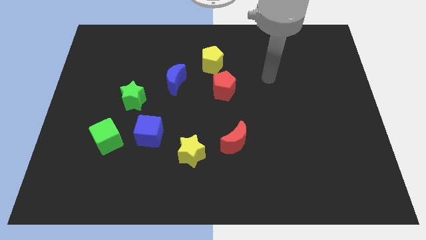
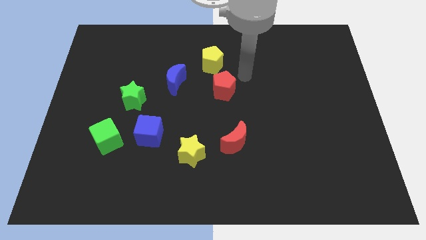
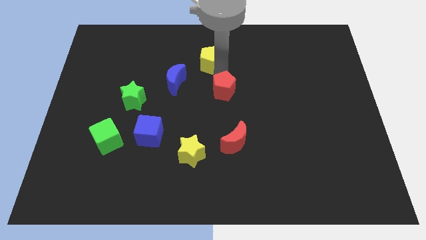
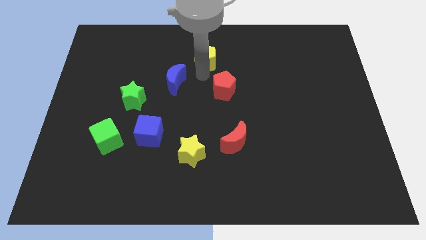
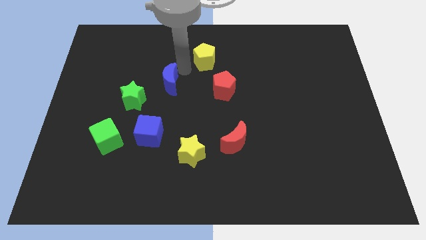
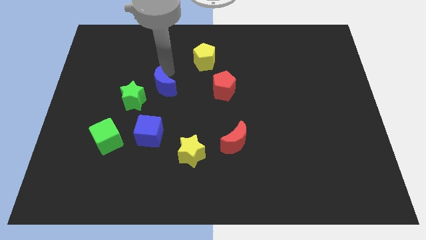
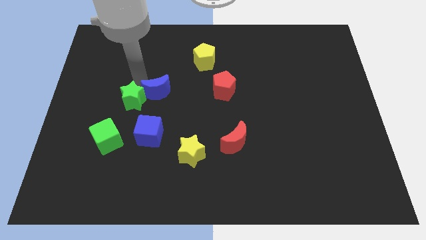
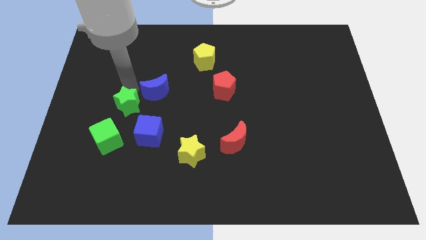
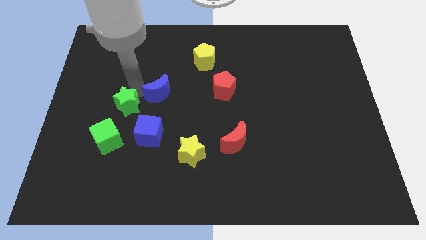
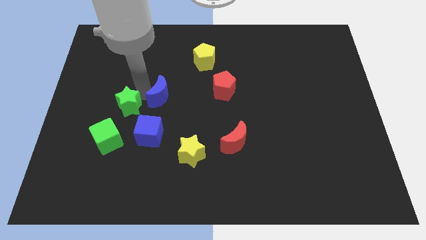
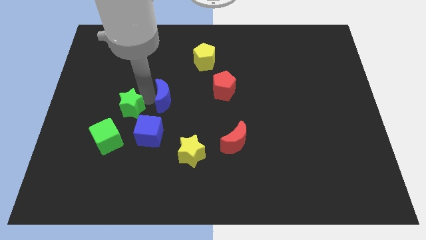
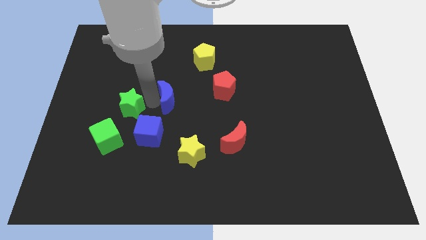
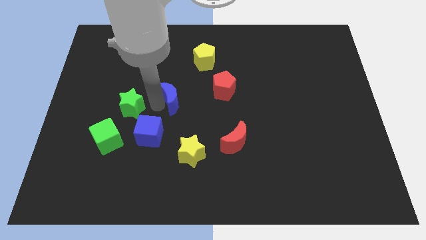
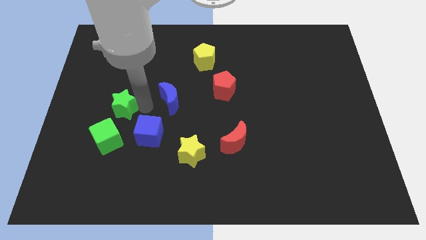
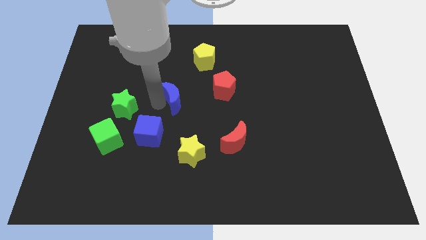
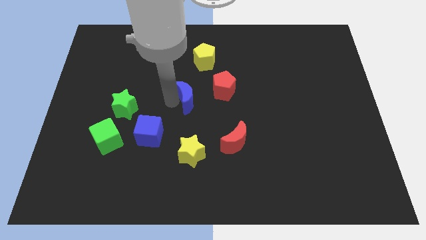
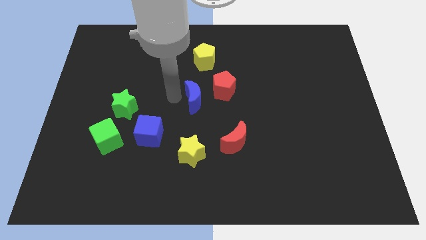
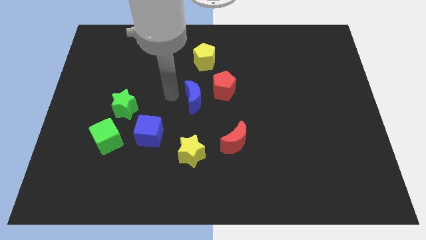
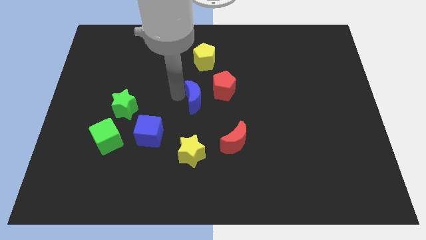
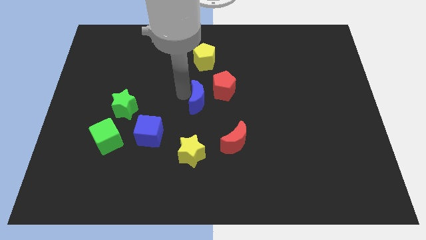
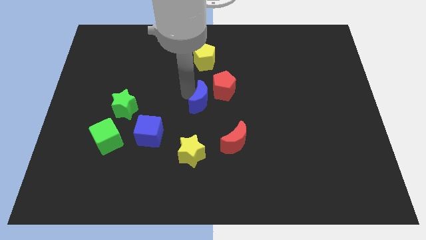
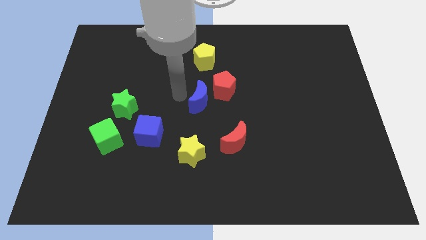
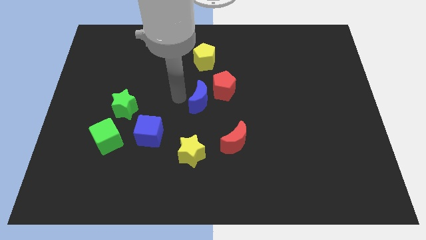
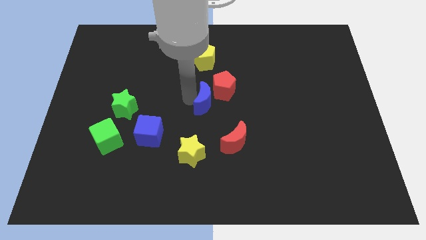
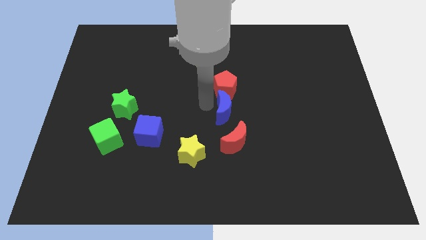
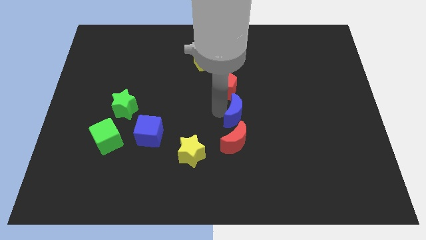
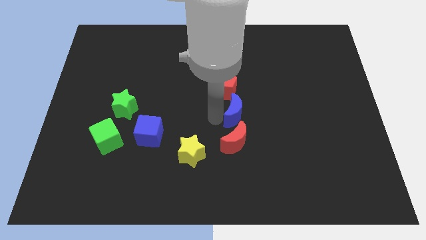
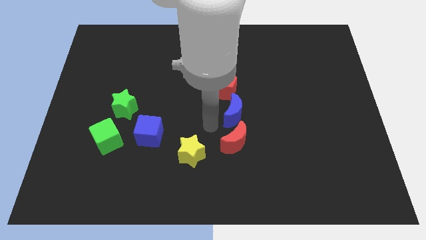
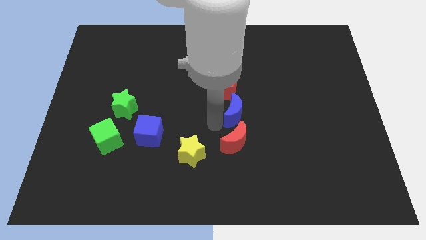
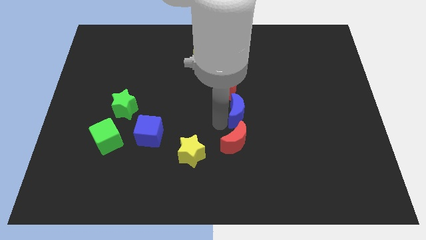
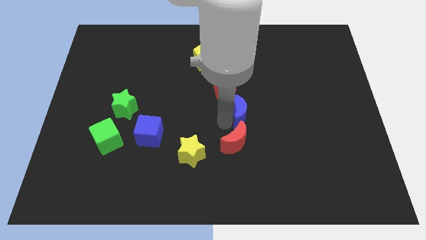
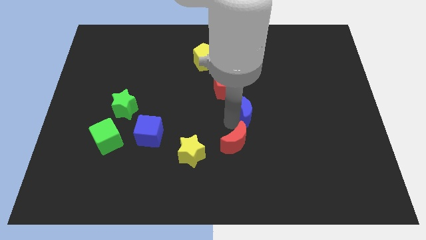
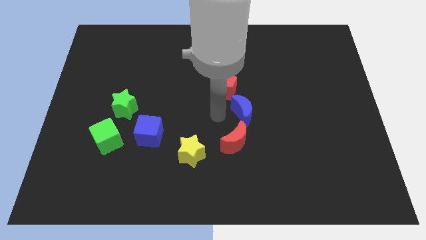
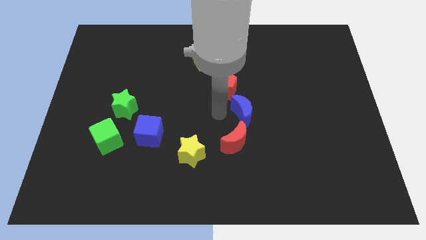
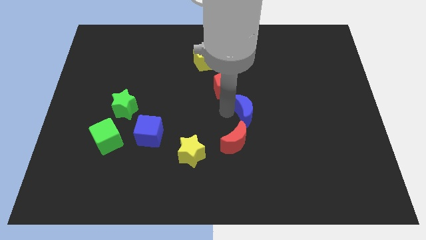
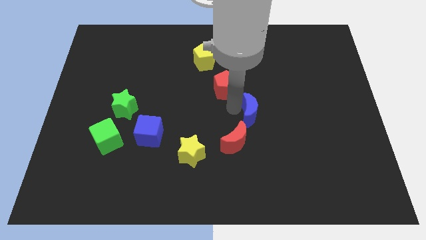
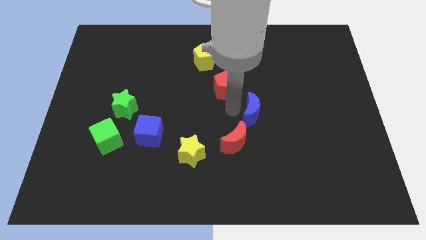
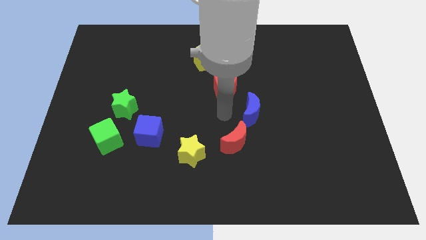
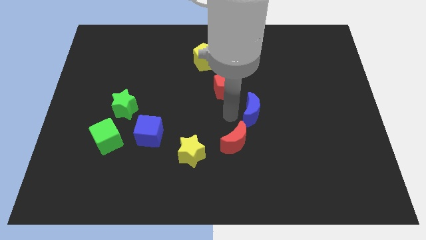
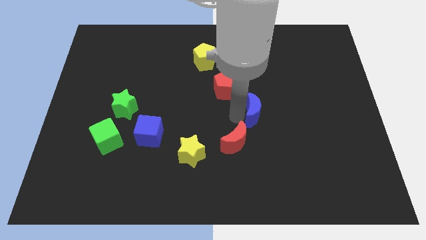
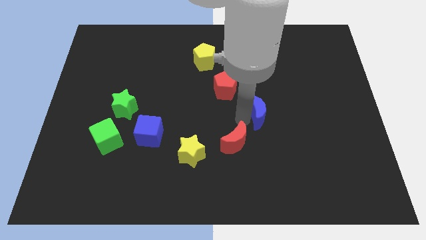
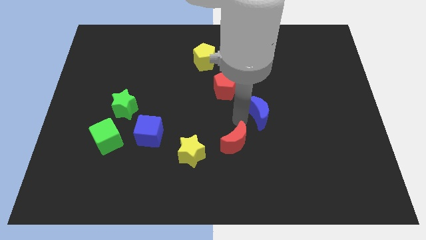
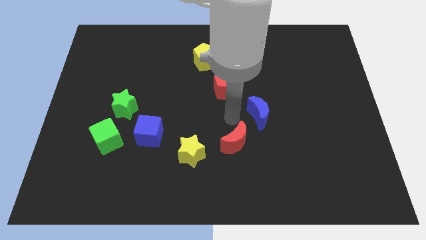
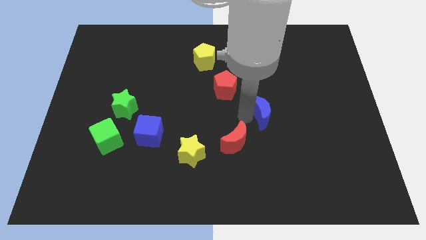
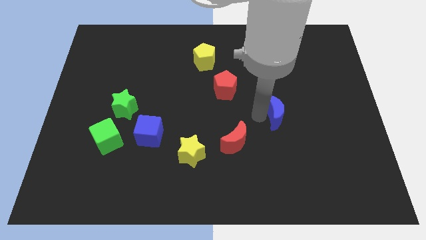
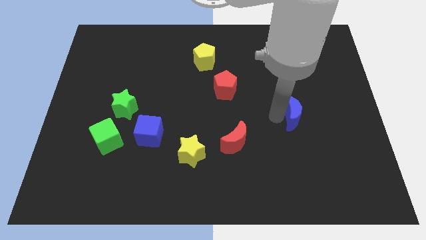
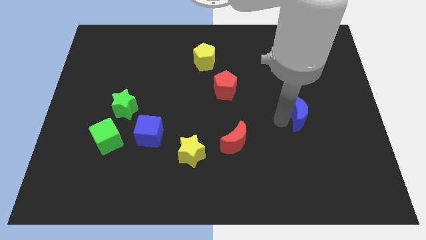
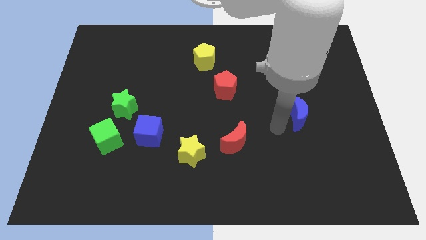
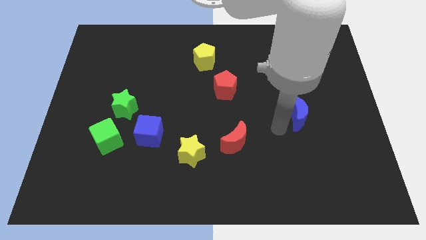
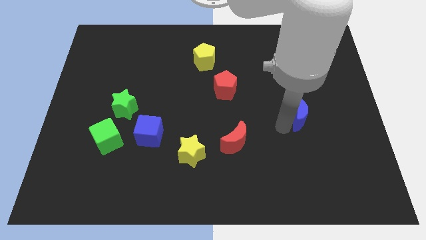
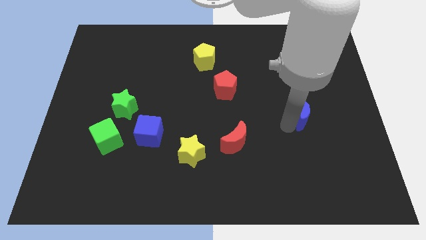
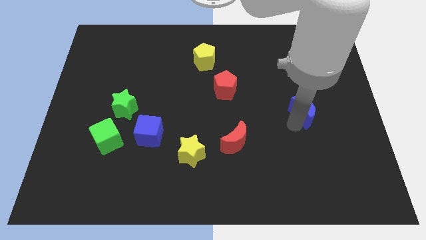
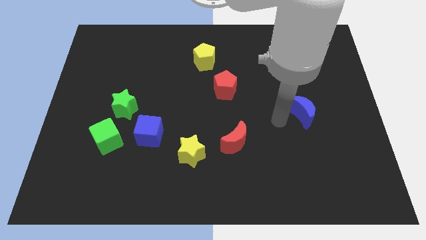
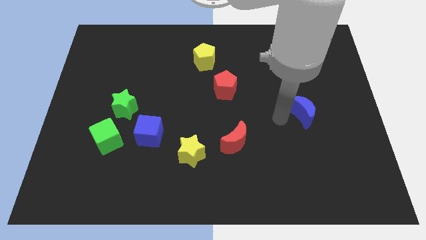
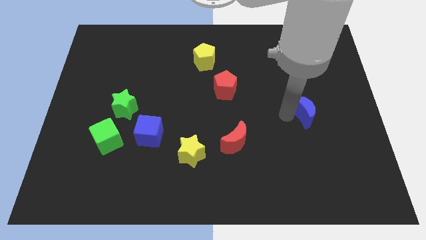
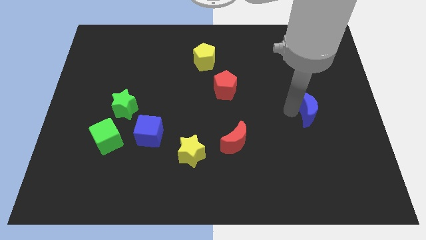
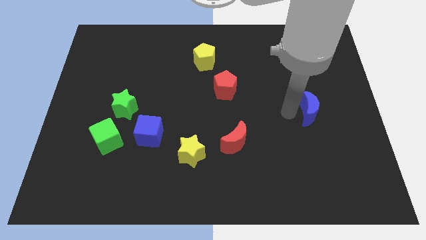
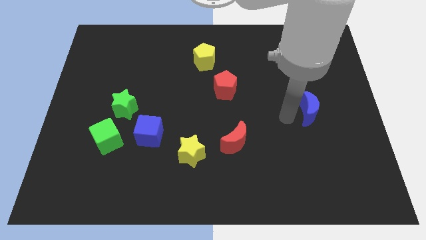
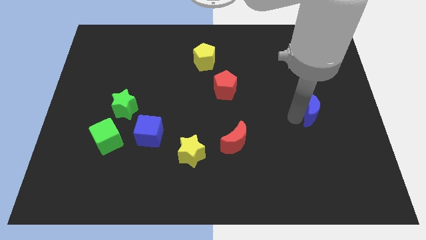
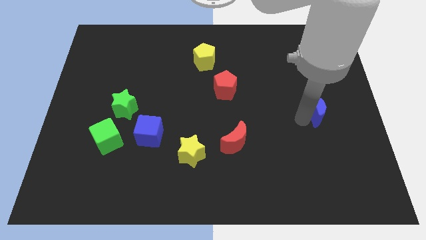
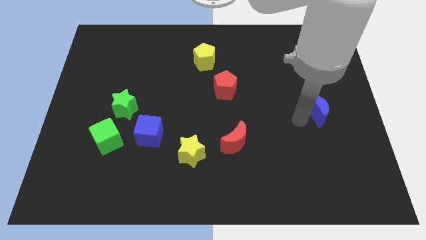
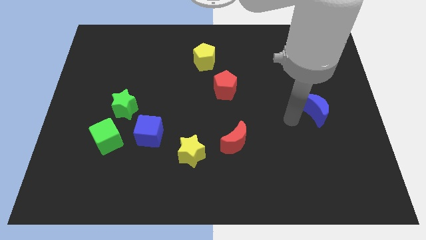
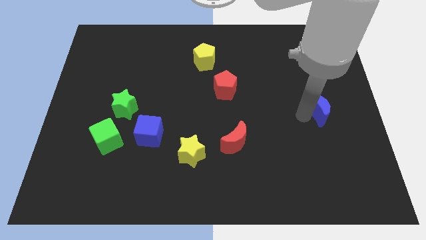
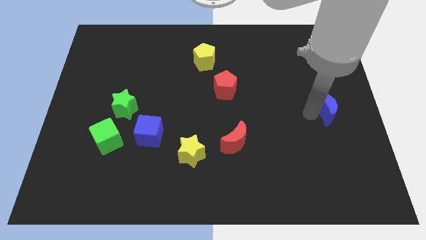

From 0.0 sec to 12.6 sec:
move the blue moon to the center right
